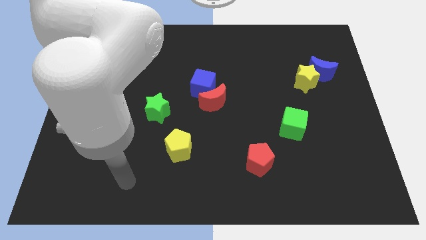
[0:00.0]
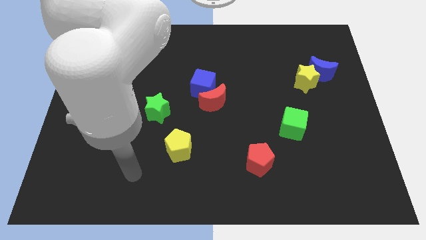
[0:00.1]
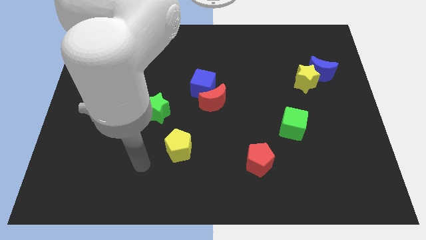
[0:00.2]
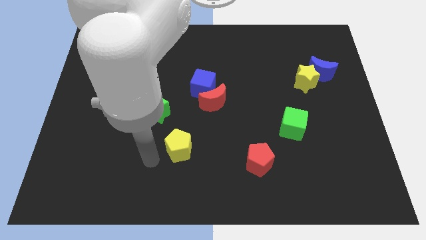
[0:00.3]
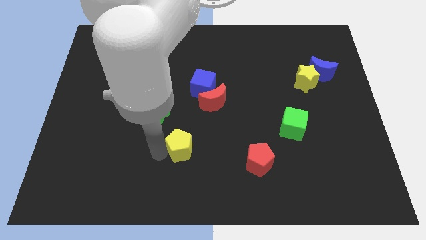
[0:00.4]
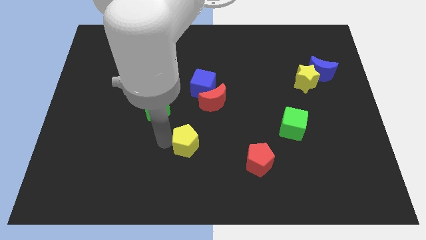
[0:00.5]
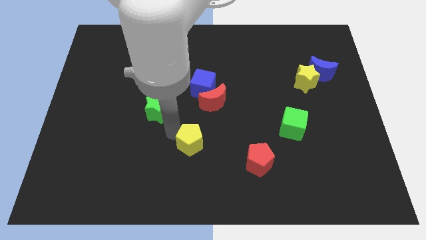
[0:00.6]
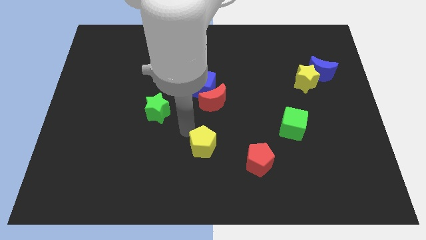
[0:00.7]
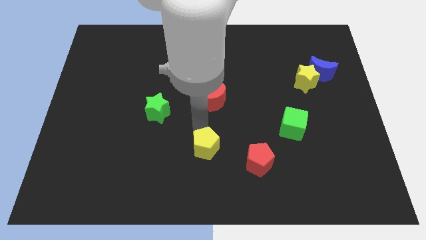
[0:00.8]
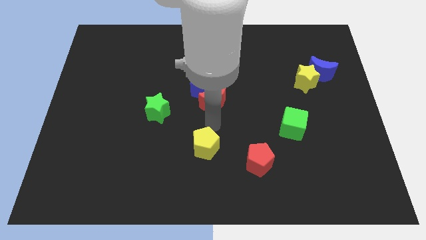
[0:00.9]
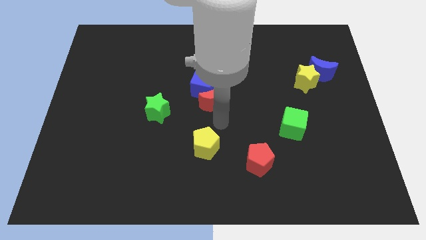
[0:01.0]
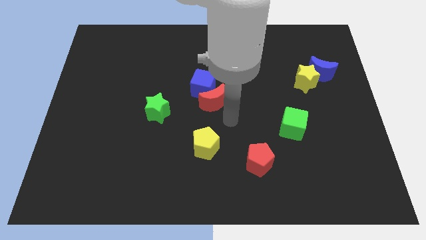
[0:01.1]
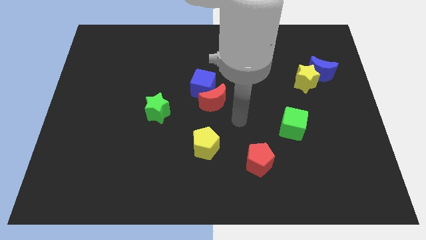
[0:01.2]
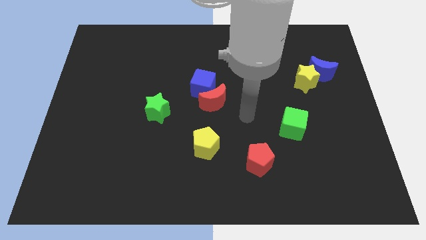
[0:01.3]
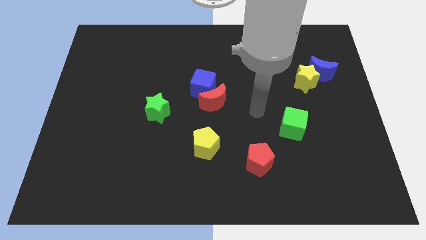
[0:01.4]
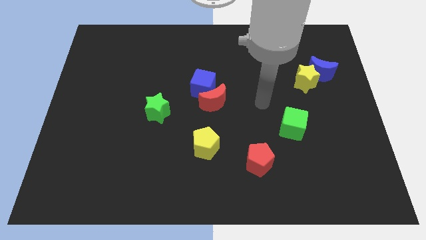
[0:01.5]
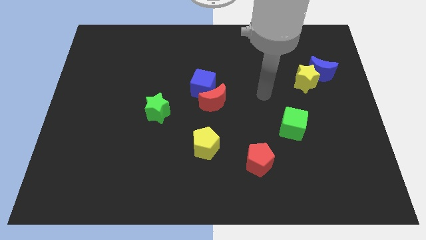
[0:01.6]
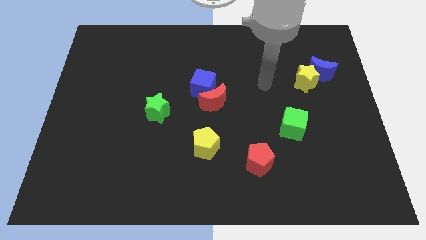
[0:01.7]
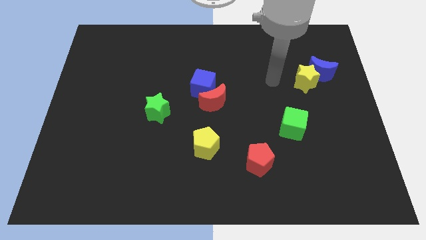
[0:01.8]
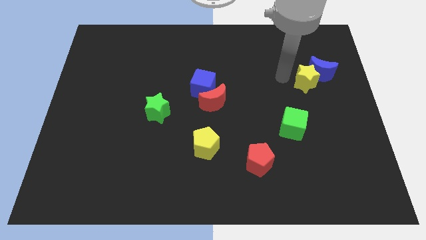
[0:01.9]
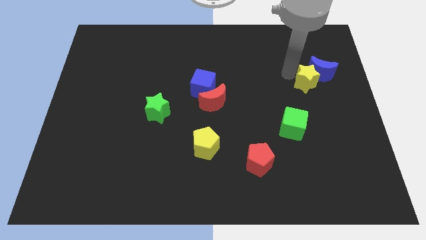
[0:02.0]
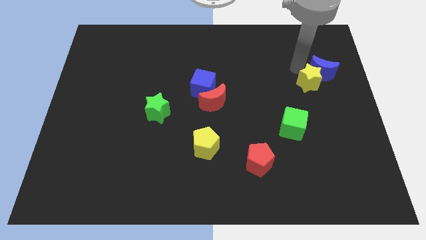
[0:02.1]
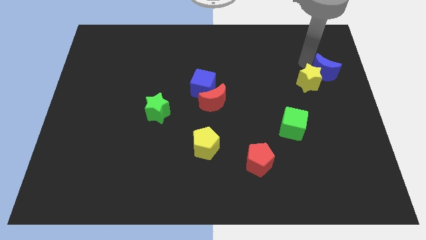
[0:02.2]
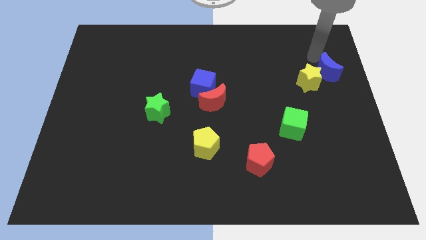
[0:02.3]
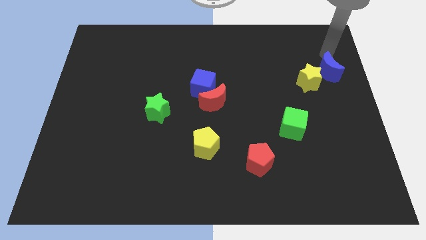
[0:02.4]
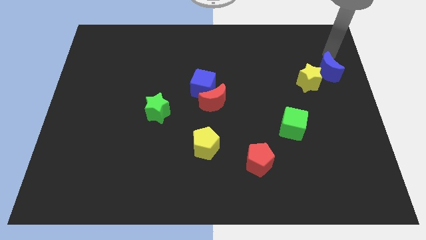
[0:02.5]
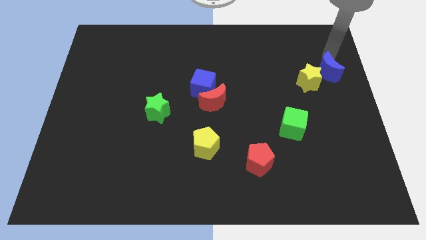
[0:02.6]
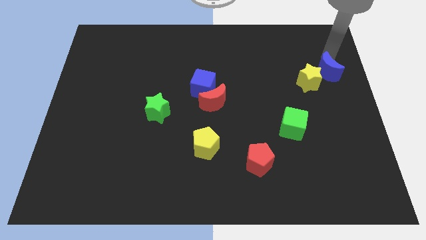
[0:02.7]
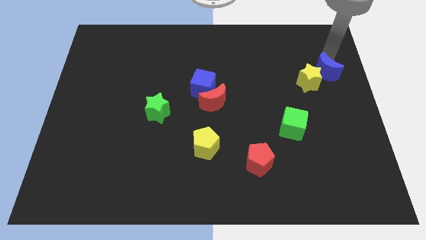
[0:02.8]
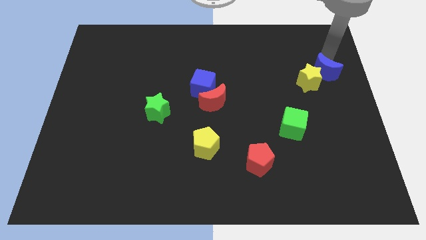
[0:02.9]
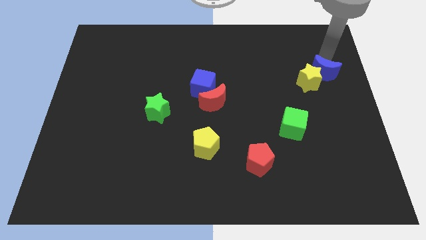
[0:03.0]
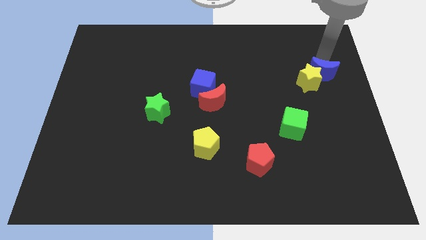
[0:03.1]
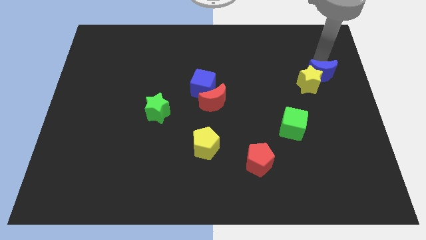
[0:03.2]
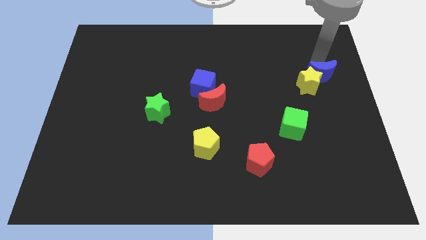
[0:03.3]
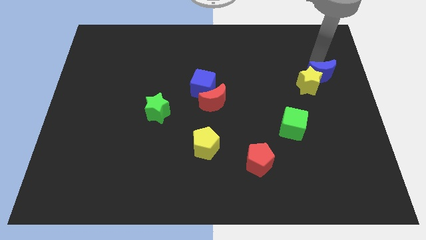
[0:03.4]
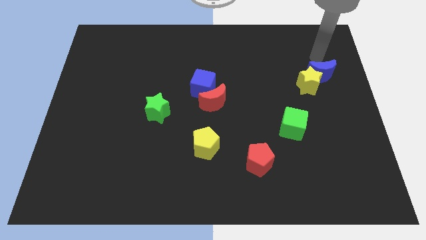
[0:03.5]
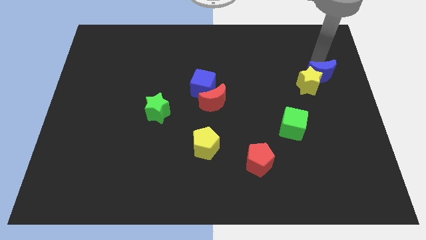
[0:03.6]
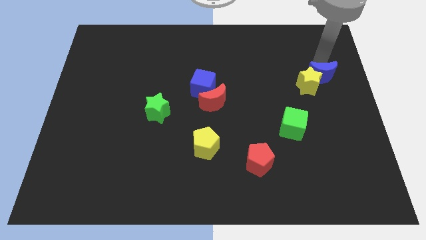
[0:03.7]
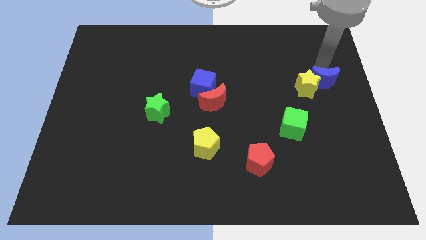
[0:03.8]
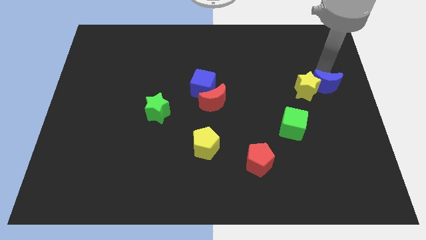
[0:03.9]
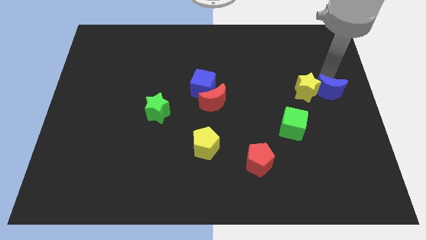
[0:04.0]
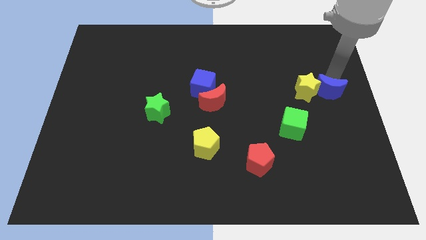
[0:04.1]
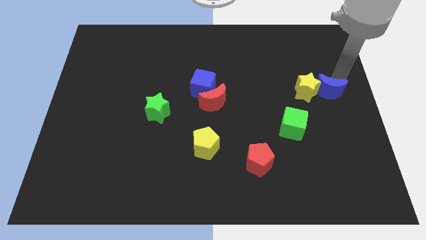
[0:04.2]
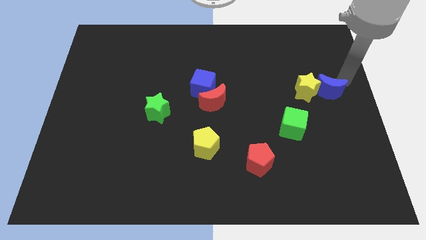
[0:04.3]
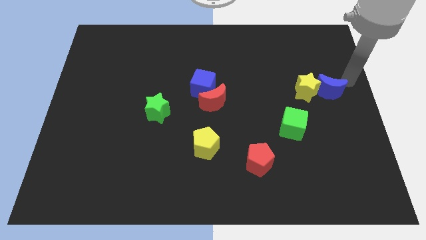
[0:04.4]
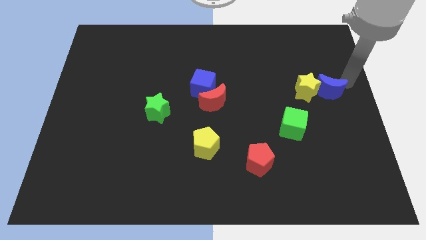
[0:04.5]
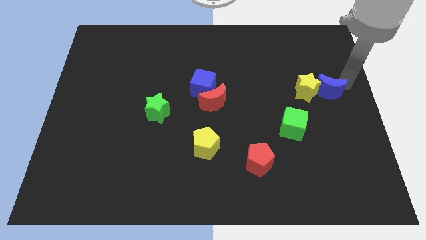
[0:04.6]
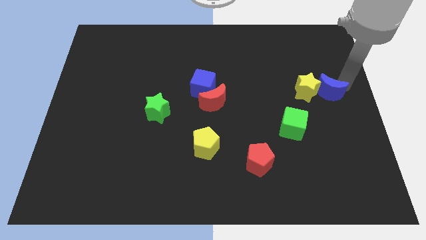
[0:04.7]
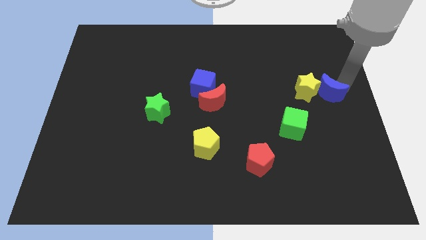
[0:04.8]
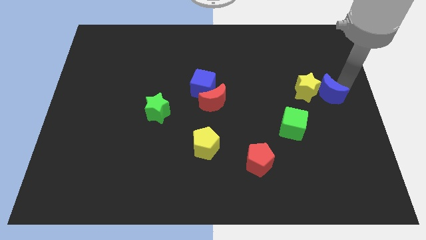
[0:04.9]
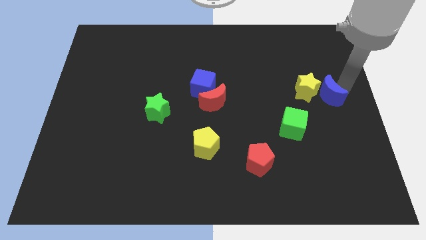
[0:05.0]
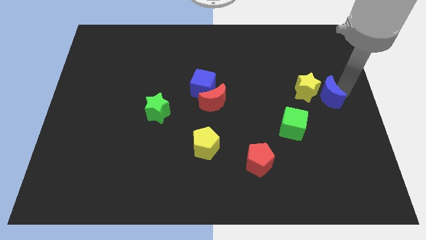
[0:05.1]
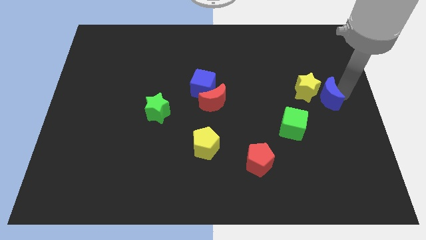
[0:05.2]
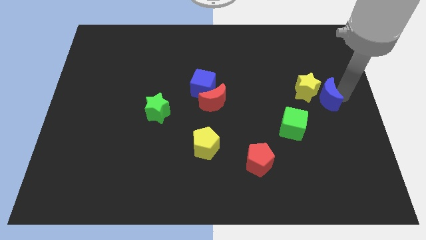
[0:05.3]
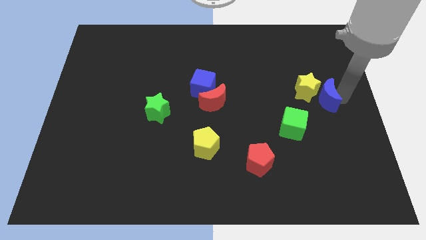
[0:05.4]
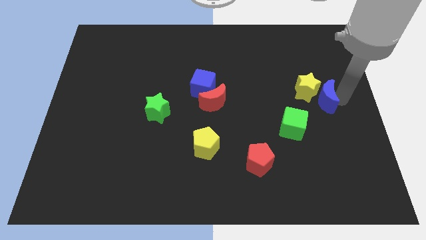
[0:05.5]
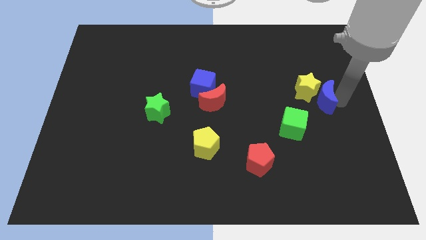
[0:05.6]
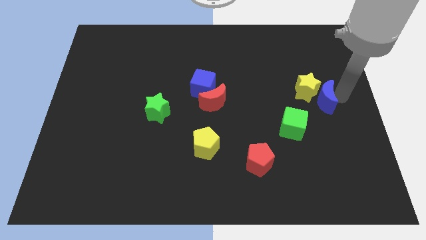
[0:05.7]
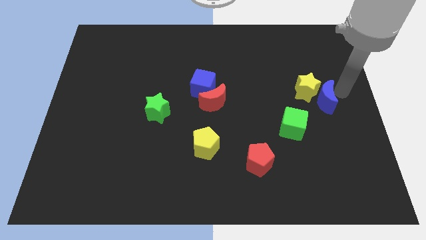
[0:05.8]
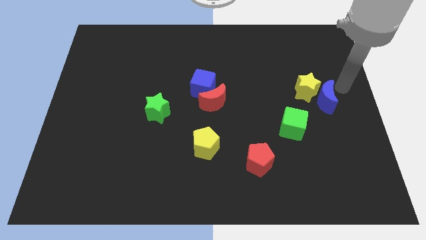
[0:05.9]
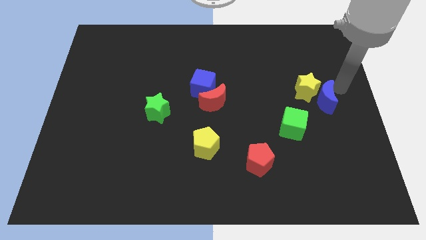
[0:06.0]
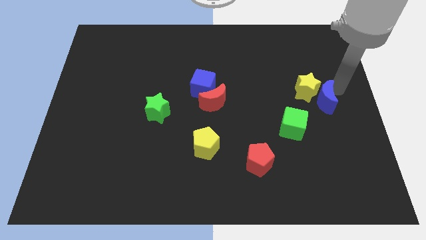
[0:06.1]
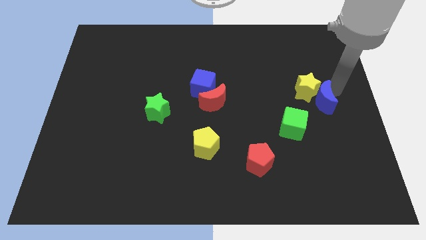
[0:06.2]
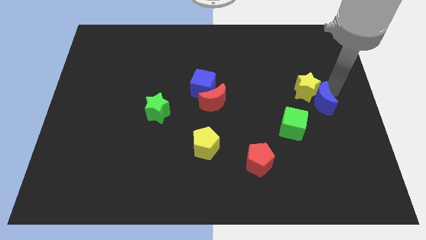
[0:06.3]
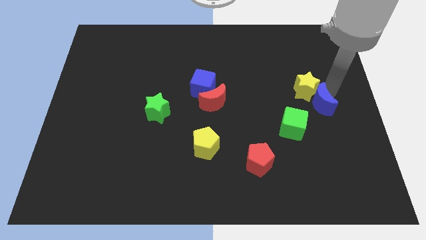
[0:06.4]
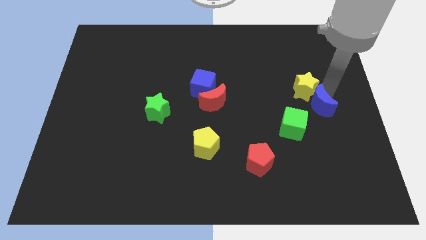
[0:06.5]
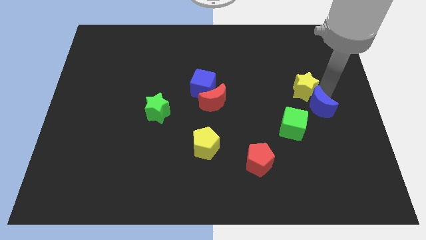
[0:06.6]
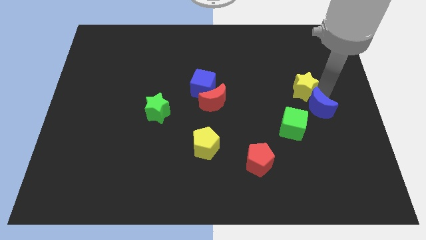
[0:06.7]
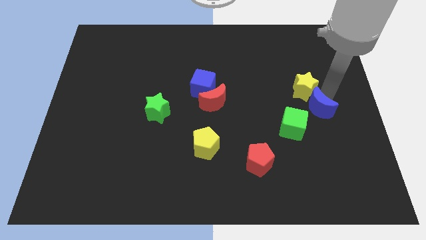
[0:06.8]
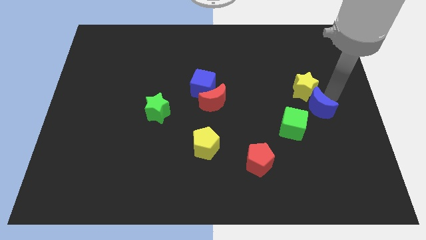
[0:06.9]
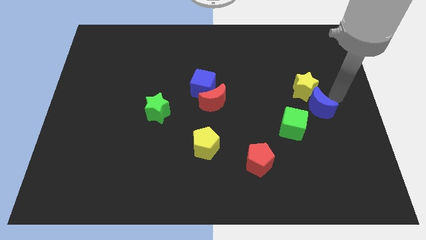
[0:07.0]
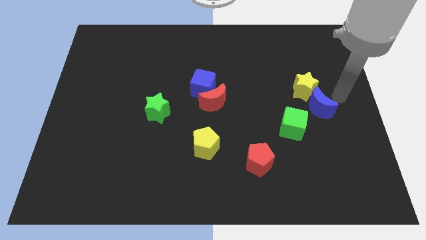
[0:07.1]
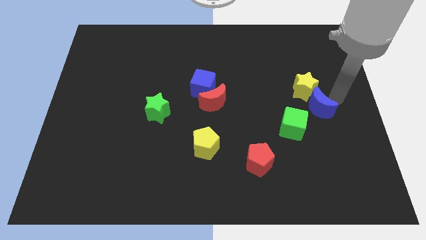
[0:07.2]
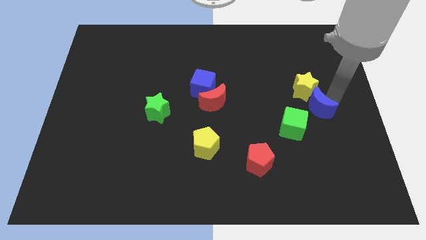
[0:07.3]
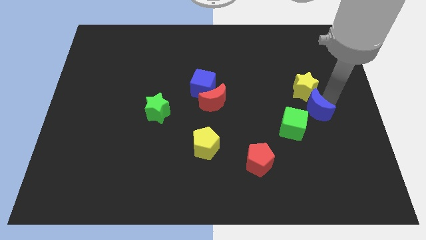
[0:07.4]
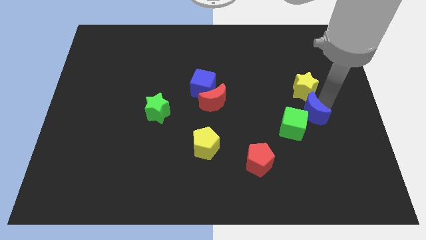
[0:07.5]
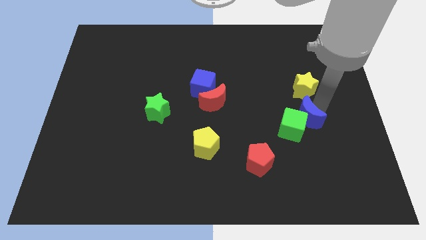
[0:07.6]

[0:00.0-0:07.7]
put the blue moon next to the green cube
